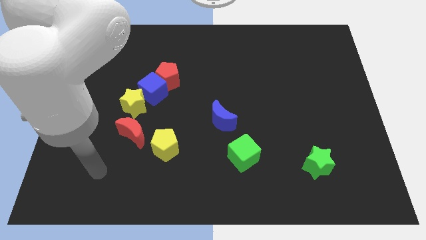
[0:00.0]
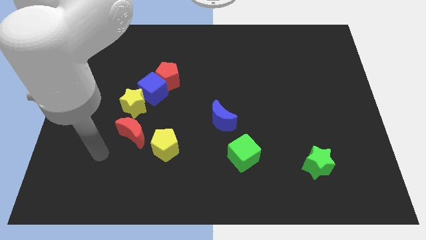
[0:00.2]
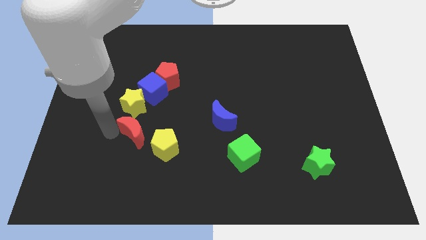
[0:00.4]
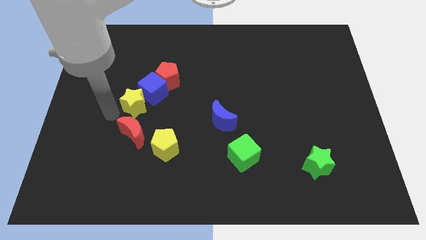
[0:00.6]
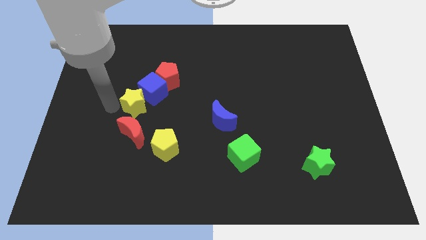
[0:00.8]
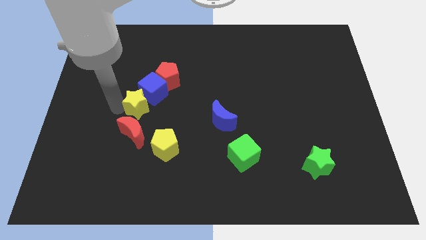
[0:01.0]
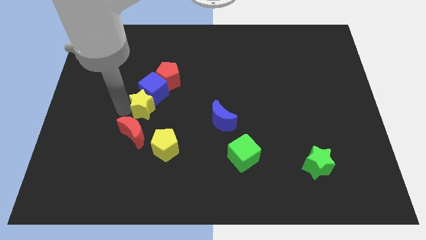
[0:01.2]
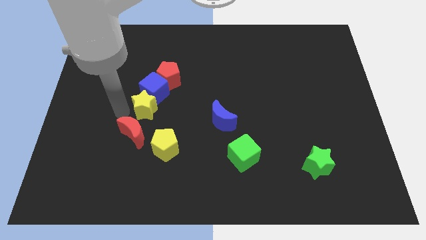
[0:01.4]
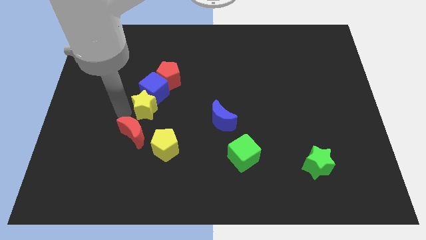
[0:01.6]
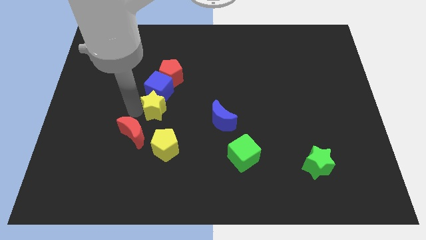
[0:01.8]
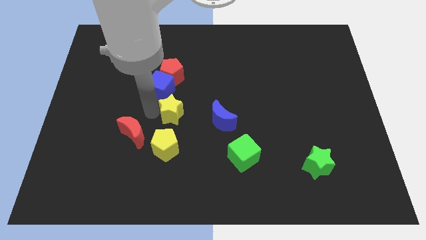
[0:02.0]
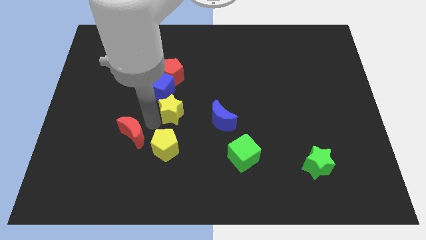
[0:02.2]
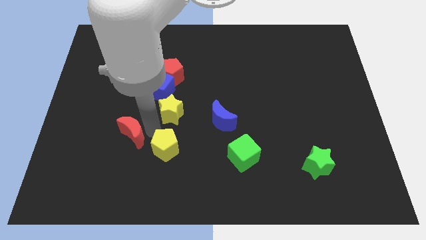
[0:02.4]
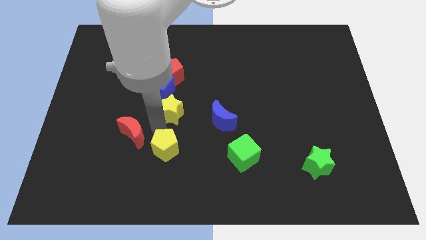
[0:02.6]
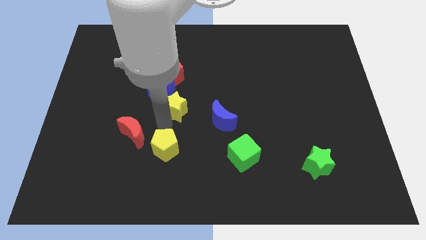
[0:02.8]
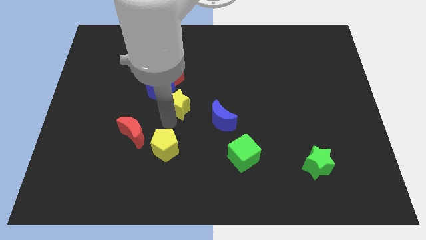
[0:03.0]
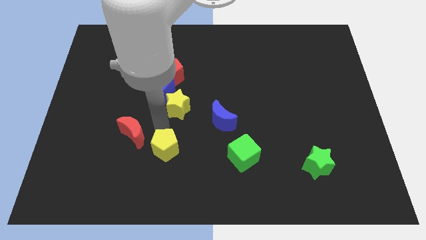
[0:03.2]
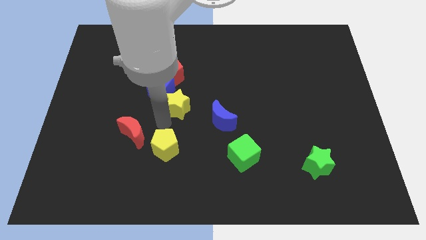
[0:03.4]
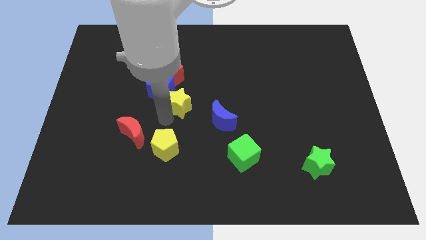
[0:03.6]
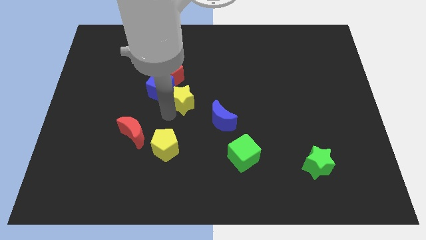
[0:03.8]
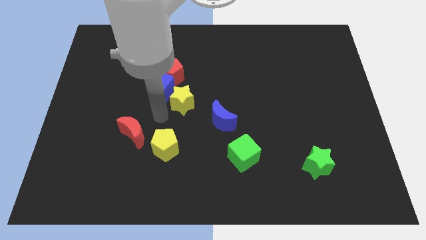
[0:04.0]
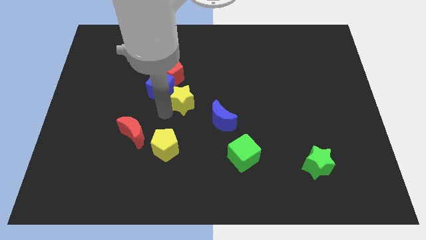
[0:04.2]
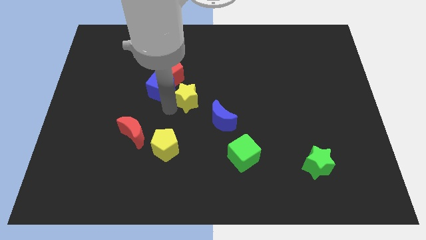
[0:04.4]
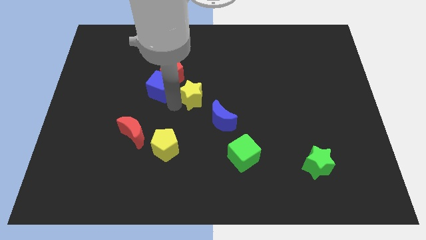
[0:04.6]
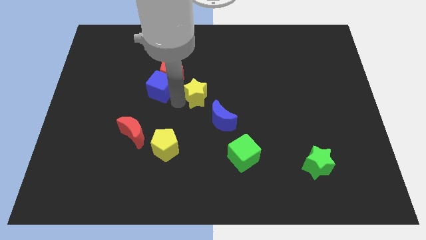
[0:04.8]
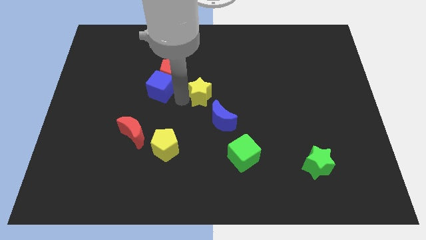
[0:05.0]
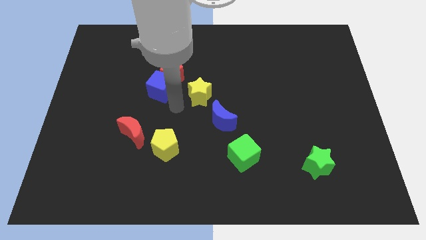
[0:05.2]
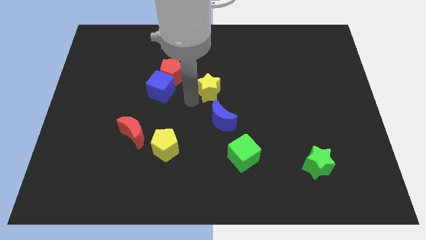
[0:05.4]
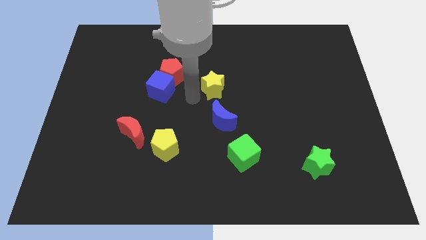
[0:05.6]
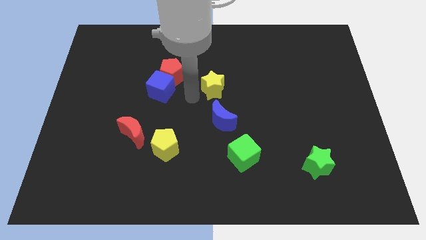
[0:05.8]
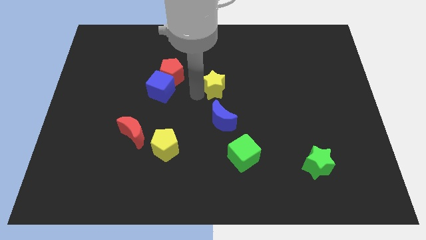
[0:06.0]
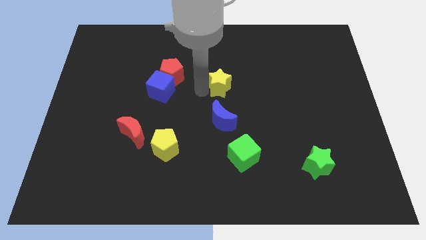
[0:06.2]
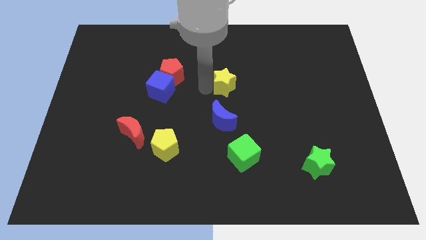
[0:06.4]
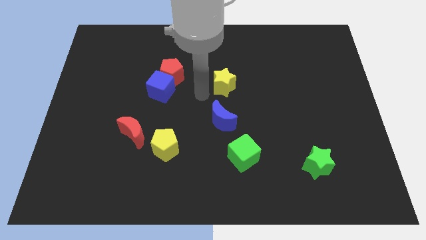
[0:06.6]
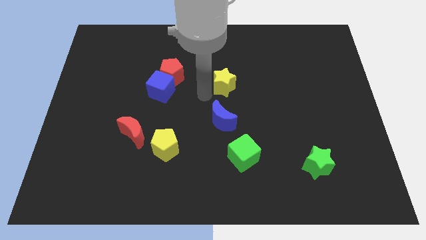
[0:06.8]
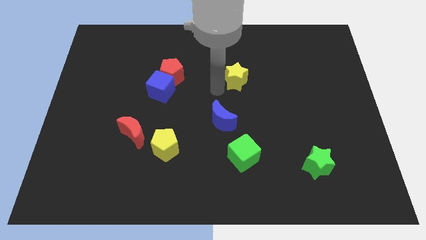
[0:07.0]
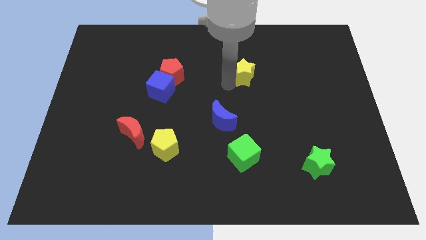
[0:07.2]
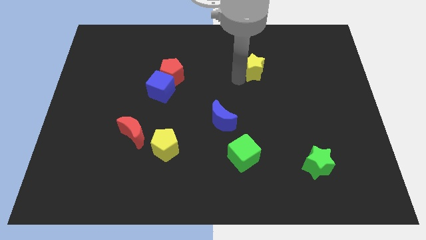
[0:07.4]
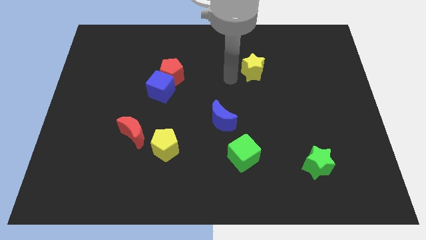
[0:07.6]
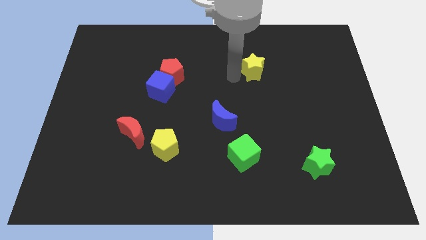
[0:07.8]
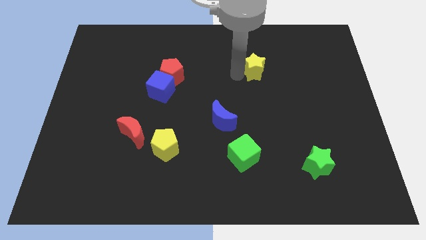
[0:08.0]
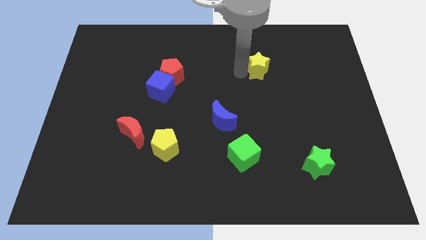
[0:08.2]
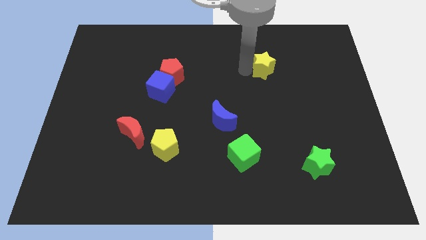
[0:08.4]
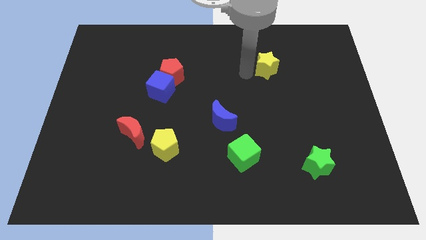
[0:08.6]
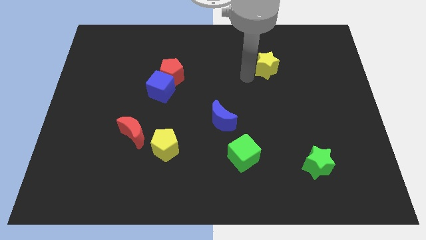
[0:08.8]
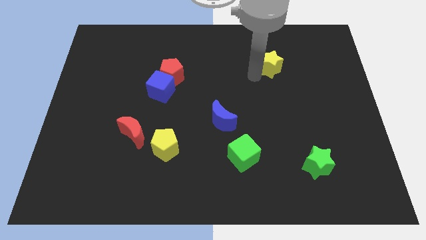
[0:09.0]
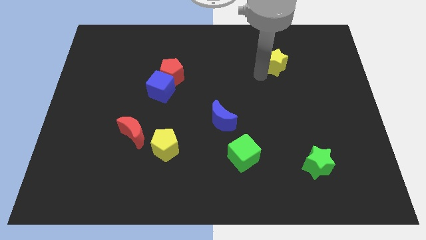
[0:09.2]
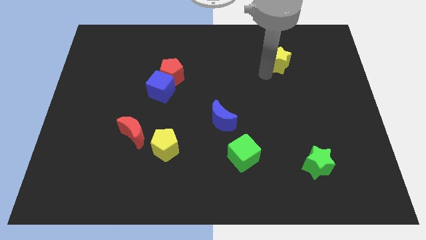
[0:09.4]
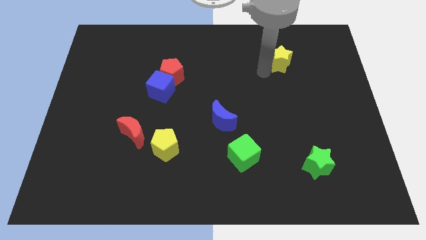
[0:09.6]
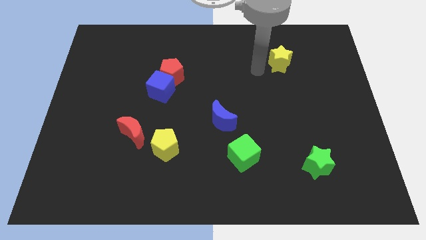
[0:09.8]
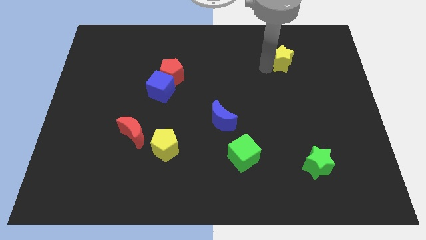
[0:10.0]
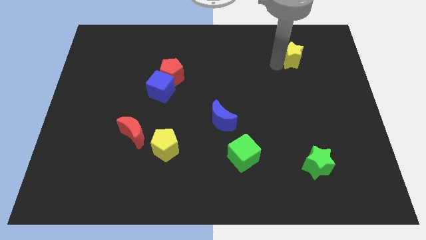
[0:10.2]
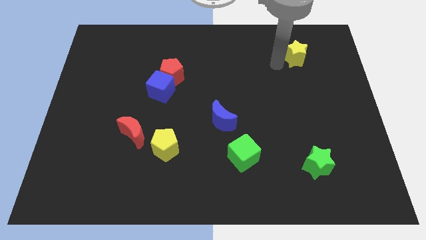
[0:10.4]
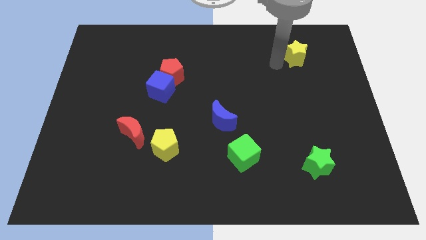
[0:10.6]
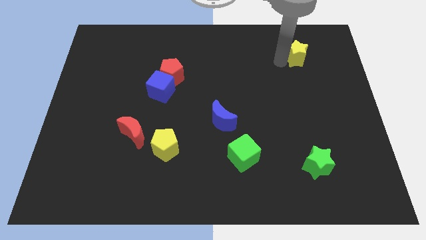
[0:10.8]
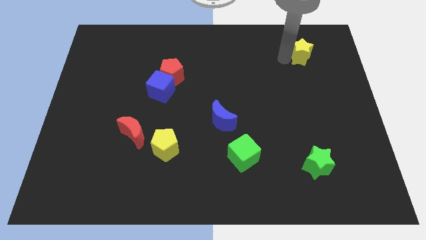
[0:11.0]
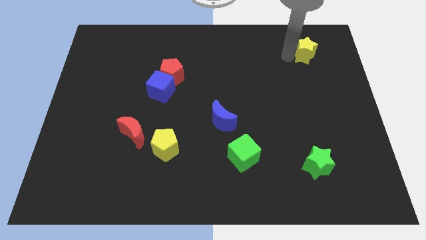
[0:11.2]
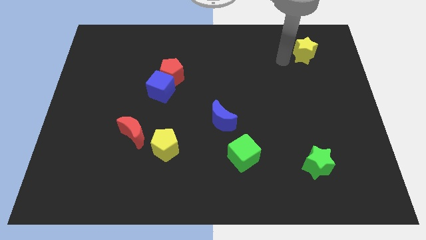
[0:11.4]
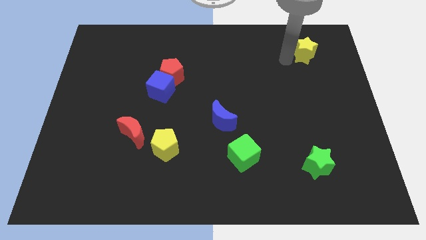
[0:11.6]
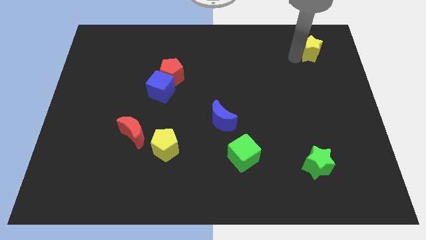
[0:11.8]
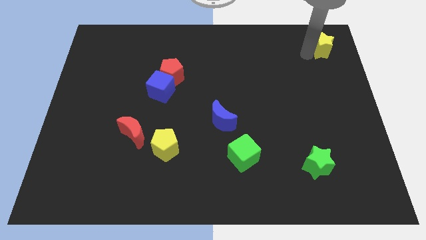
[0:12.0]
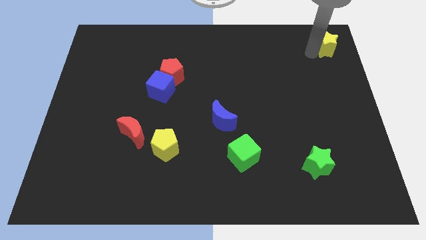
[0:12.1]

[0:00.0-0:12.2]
slide the yellow star to the top right
